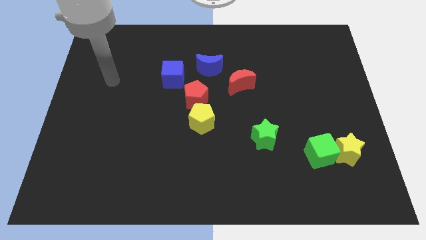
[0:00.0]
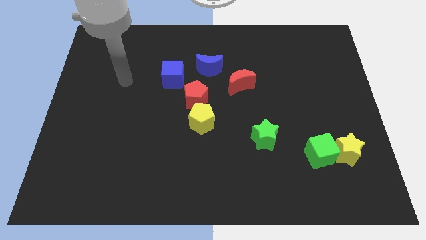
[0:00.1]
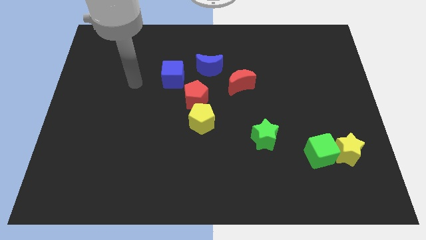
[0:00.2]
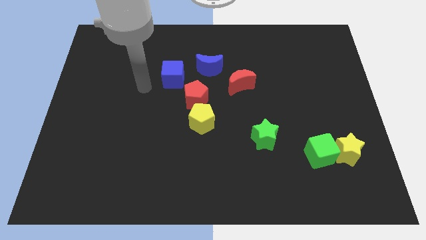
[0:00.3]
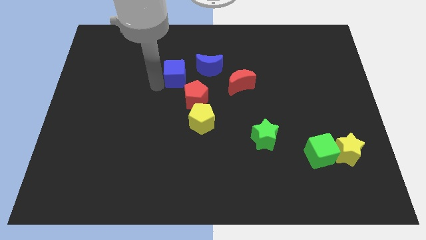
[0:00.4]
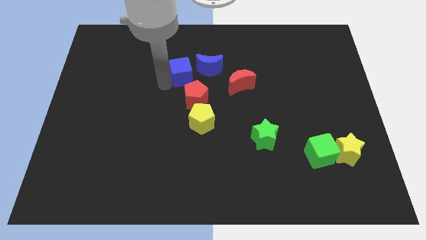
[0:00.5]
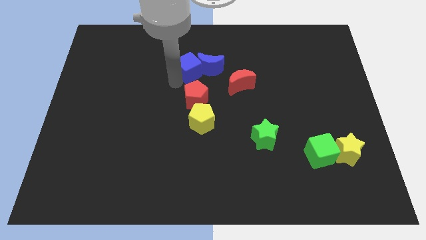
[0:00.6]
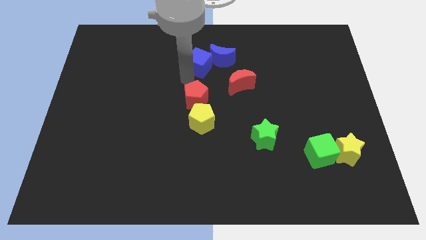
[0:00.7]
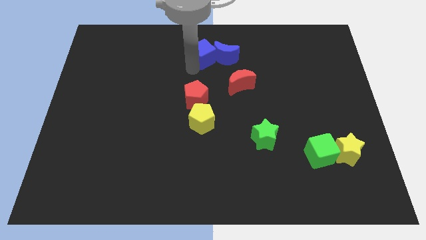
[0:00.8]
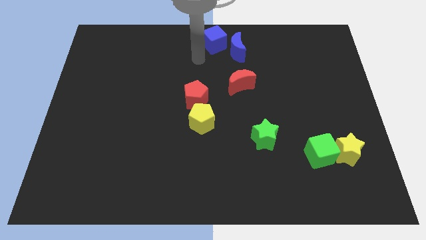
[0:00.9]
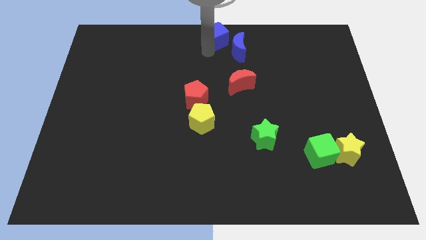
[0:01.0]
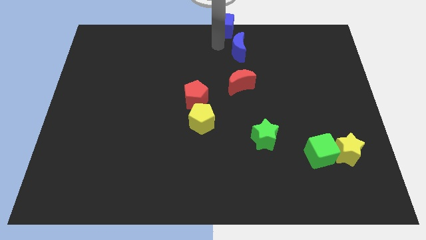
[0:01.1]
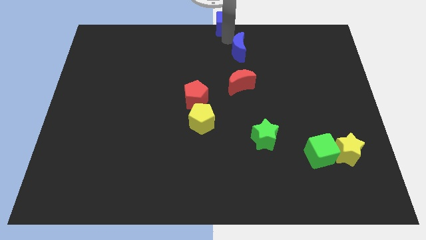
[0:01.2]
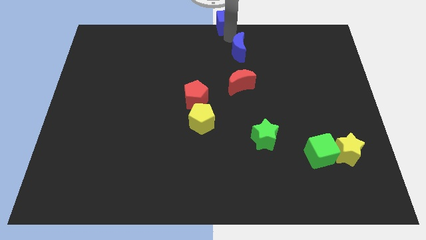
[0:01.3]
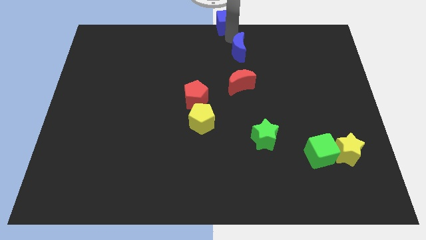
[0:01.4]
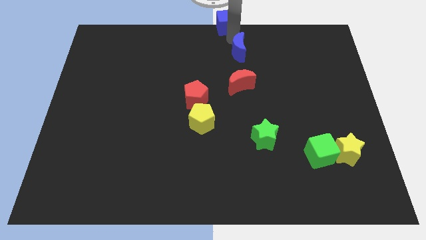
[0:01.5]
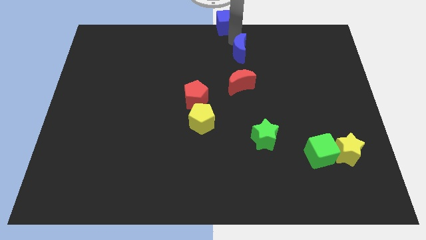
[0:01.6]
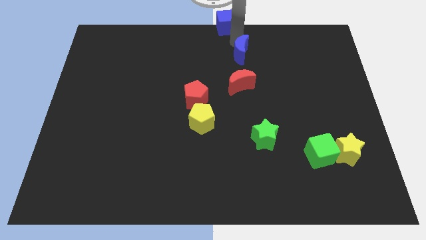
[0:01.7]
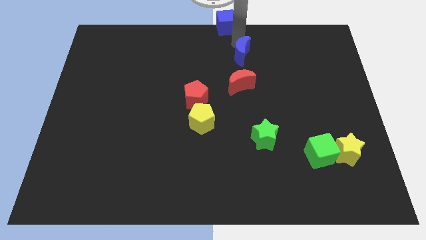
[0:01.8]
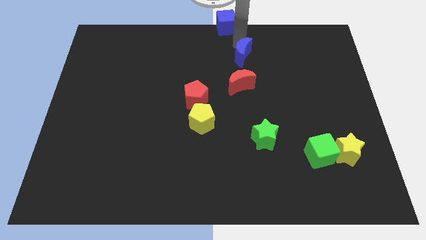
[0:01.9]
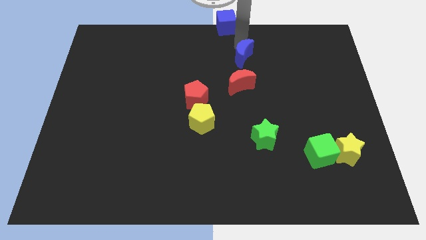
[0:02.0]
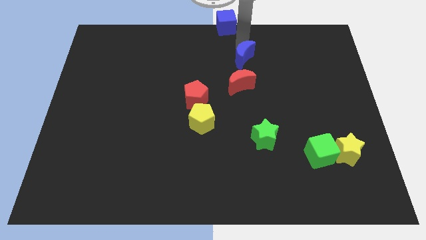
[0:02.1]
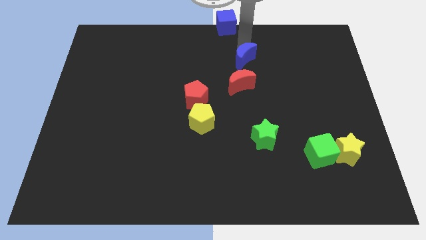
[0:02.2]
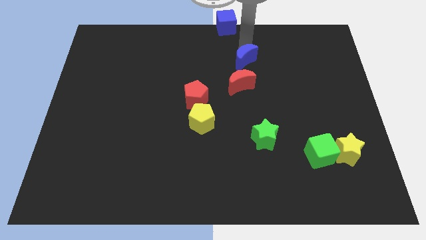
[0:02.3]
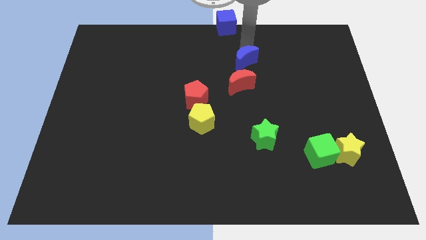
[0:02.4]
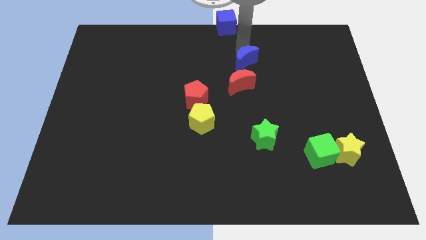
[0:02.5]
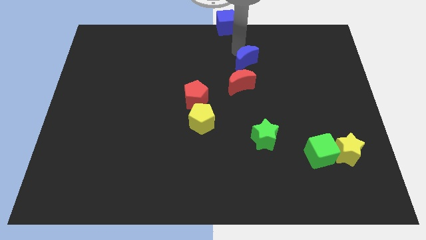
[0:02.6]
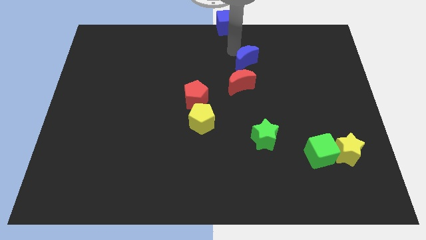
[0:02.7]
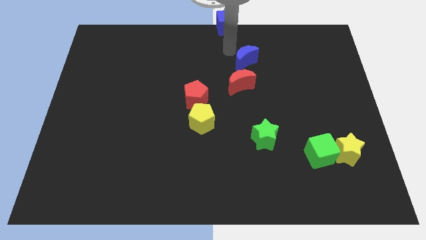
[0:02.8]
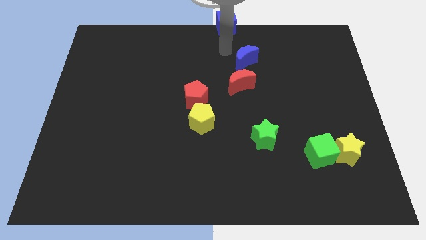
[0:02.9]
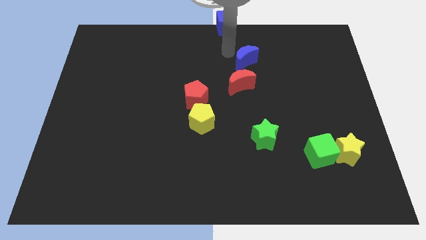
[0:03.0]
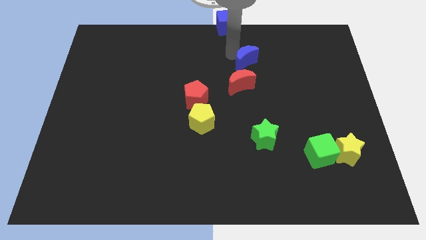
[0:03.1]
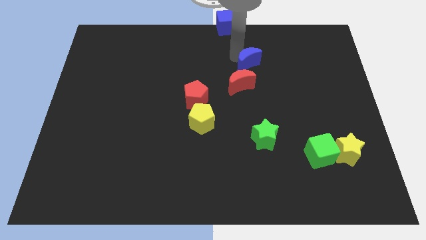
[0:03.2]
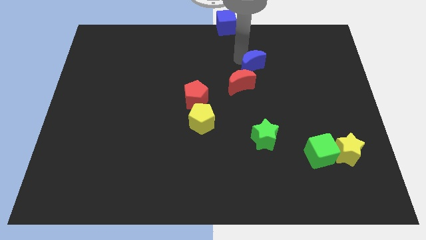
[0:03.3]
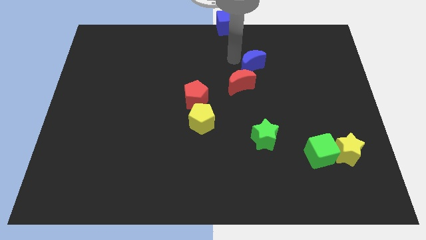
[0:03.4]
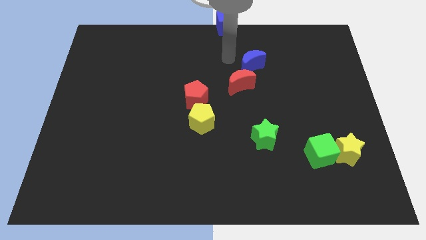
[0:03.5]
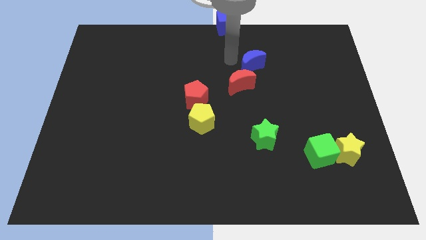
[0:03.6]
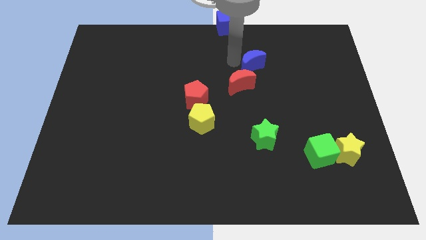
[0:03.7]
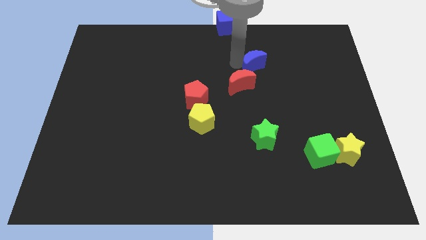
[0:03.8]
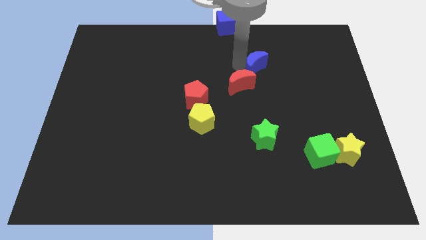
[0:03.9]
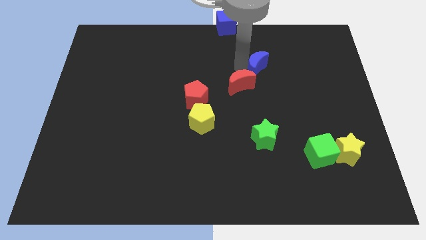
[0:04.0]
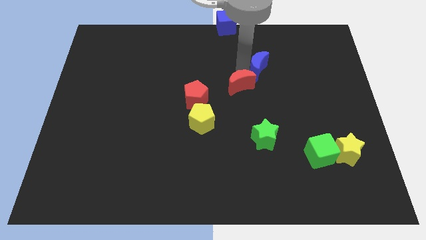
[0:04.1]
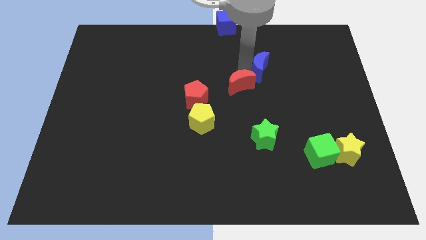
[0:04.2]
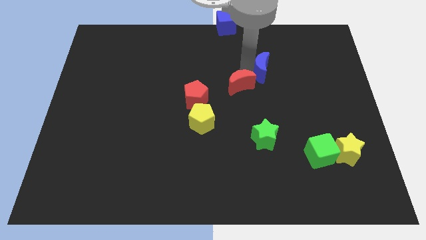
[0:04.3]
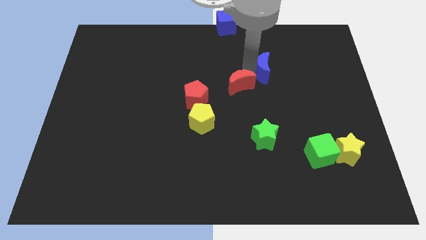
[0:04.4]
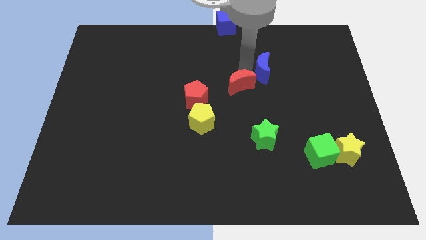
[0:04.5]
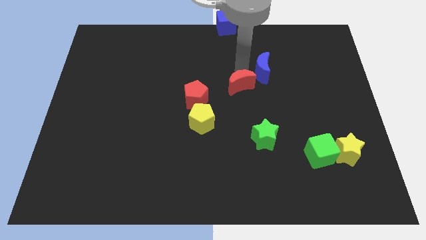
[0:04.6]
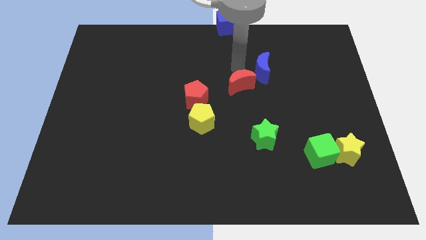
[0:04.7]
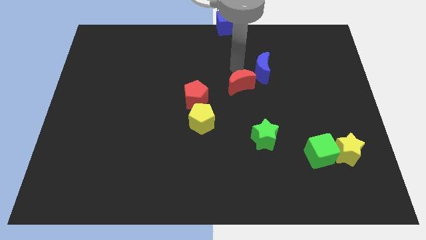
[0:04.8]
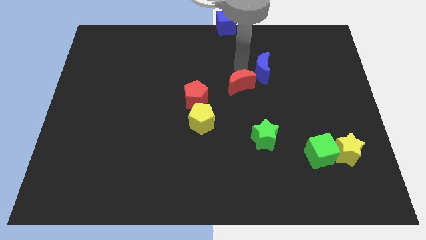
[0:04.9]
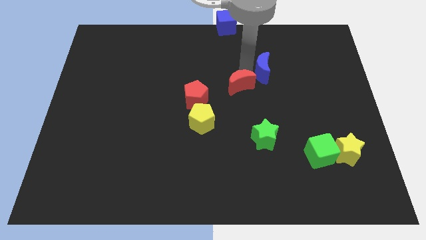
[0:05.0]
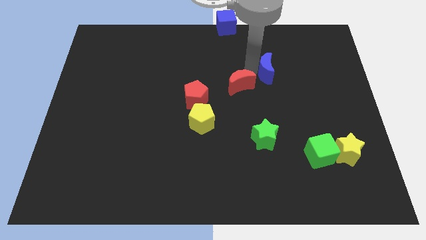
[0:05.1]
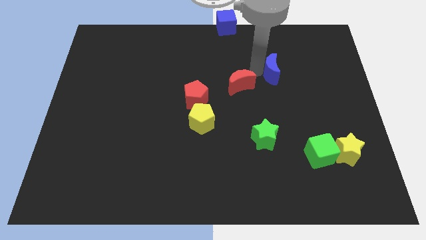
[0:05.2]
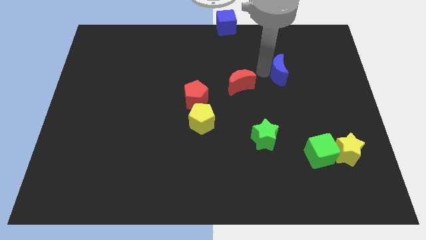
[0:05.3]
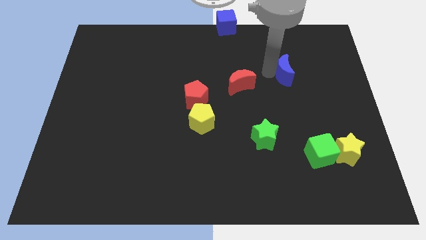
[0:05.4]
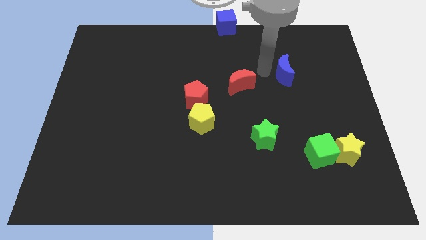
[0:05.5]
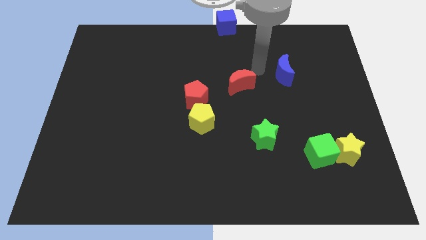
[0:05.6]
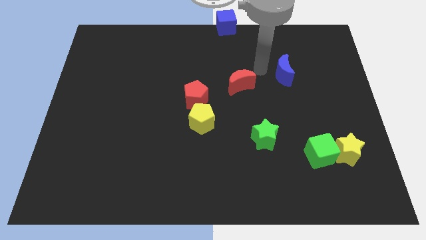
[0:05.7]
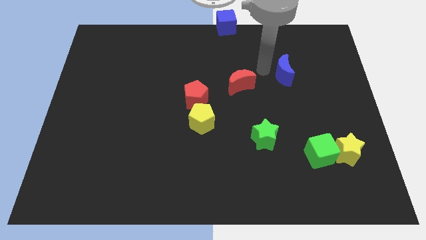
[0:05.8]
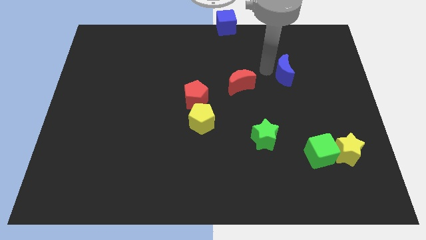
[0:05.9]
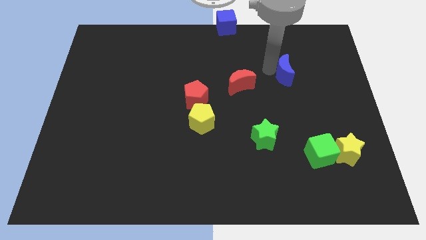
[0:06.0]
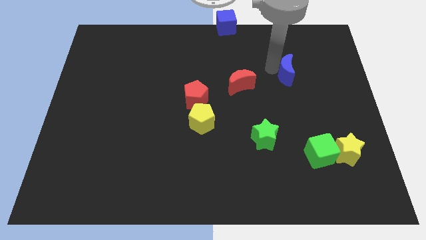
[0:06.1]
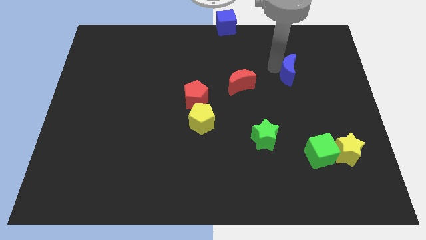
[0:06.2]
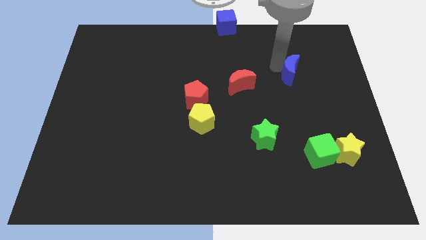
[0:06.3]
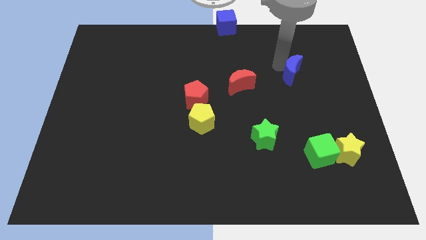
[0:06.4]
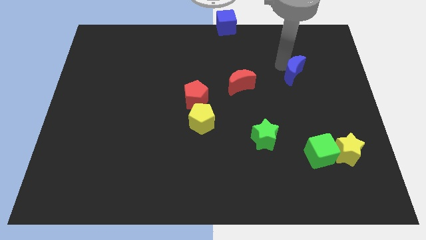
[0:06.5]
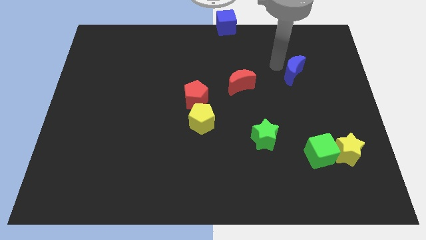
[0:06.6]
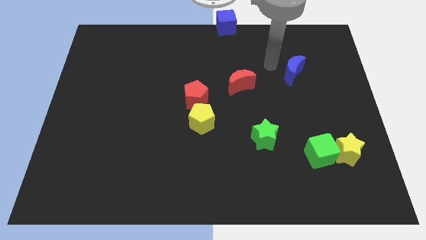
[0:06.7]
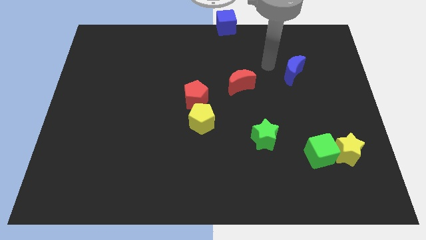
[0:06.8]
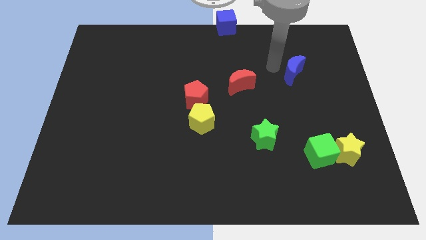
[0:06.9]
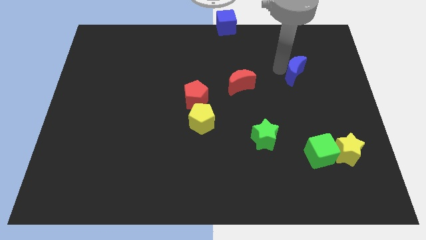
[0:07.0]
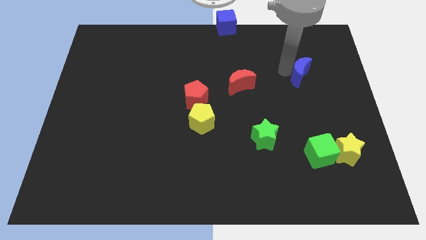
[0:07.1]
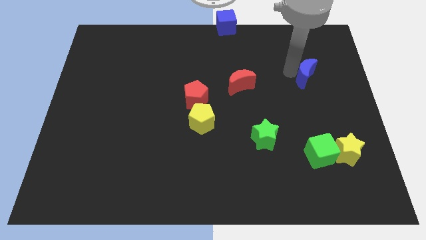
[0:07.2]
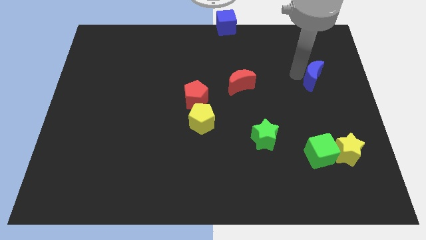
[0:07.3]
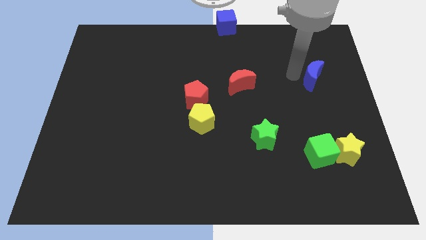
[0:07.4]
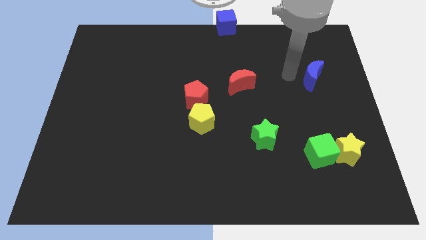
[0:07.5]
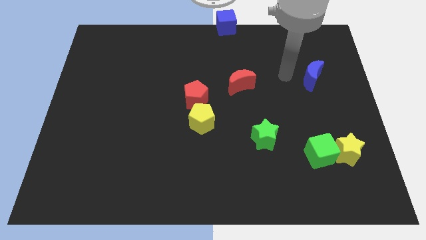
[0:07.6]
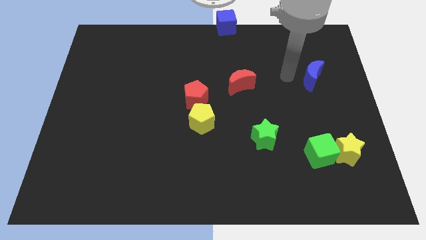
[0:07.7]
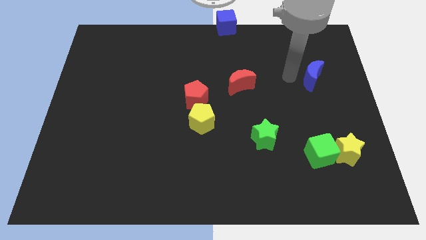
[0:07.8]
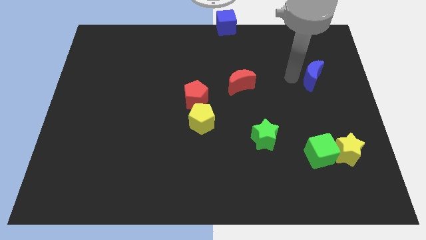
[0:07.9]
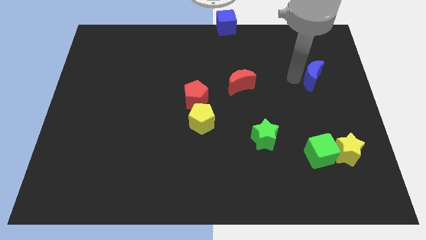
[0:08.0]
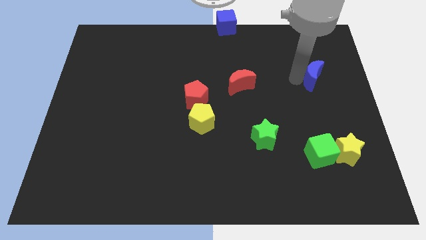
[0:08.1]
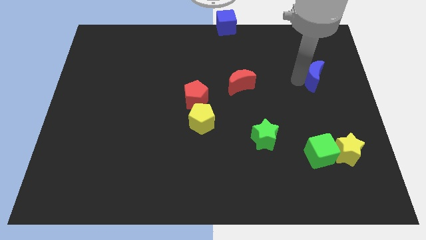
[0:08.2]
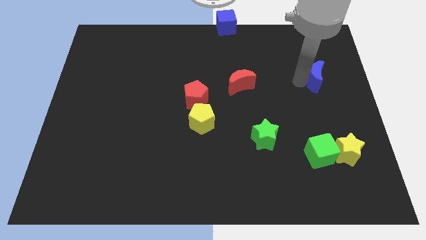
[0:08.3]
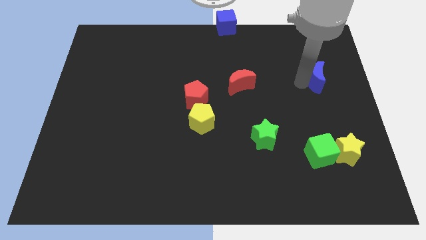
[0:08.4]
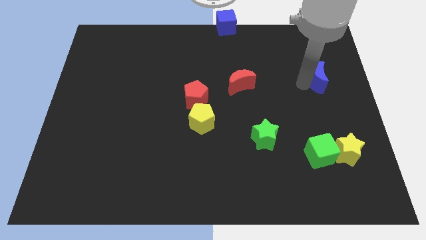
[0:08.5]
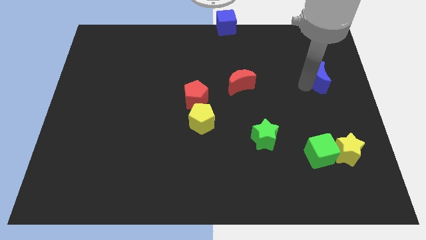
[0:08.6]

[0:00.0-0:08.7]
push the blue moon to the right side
